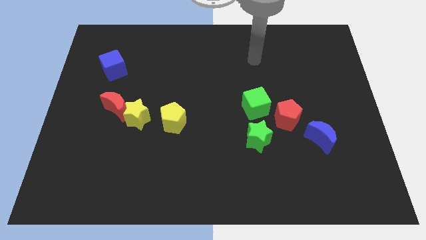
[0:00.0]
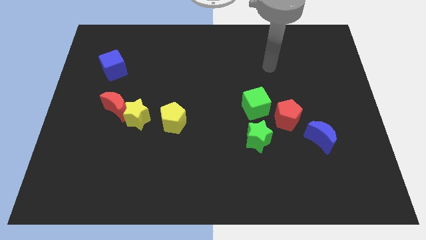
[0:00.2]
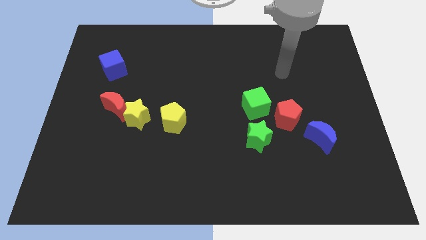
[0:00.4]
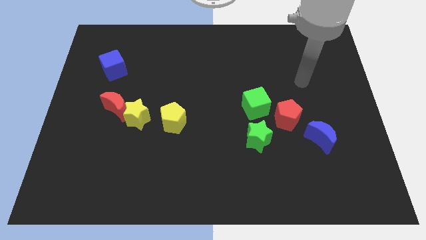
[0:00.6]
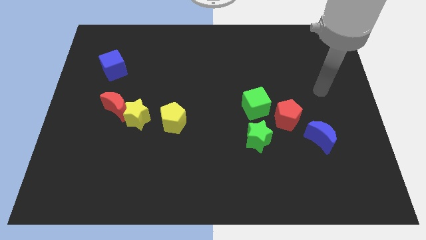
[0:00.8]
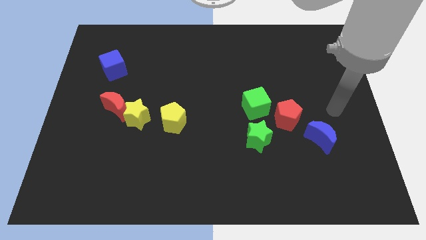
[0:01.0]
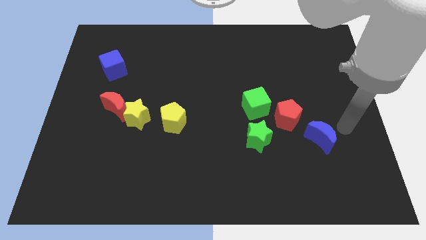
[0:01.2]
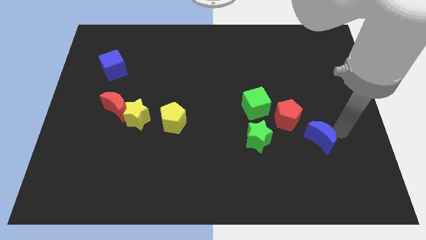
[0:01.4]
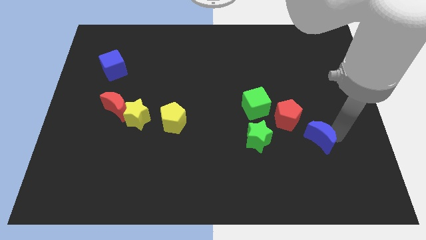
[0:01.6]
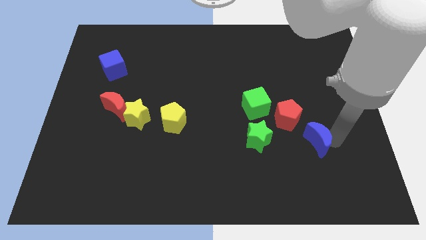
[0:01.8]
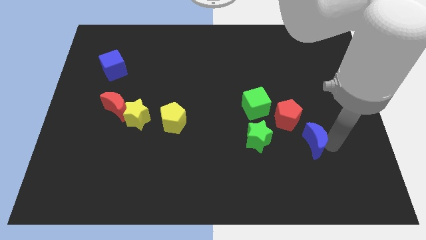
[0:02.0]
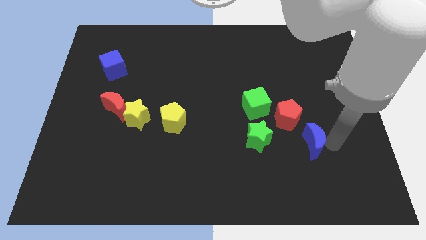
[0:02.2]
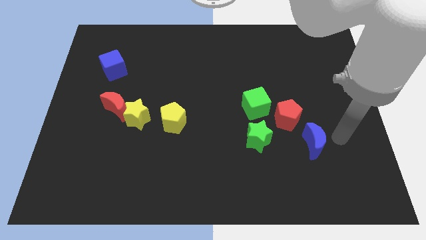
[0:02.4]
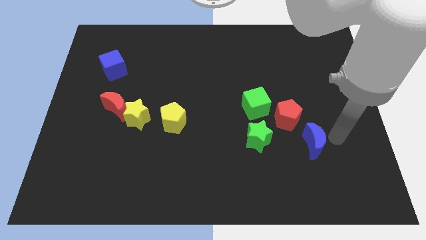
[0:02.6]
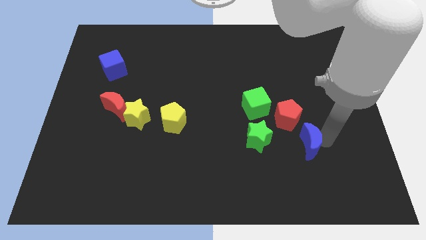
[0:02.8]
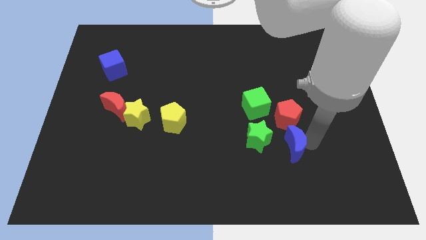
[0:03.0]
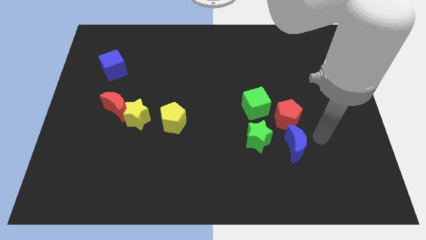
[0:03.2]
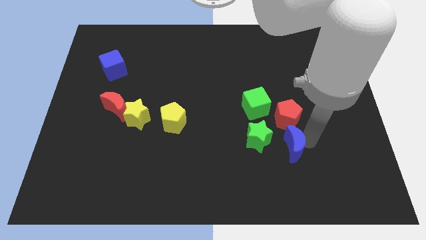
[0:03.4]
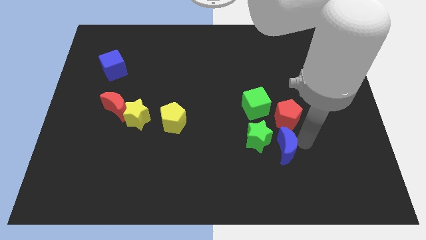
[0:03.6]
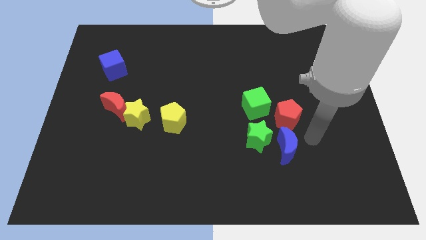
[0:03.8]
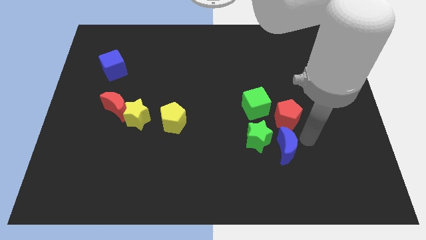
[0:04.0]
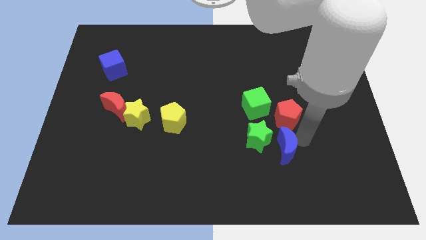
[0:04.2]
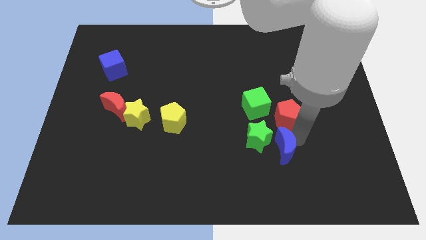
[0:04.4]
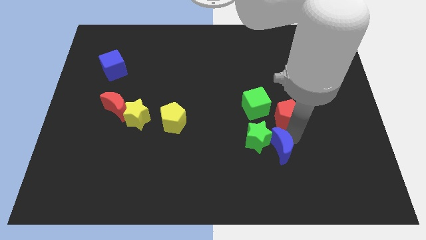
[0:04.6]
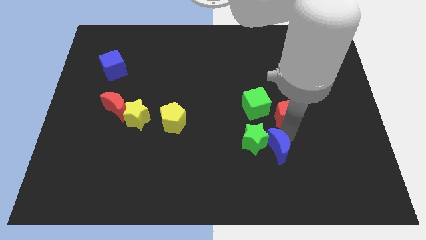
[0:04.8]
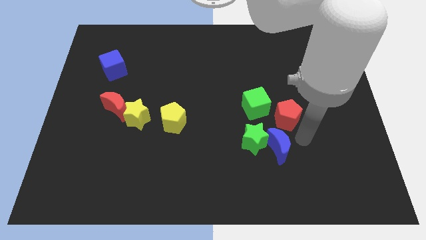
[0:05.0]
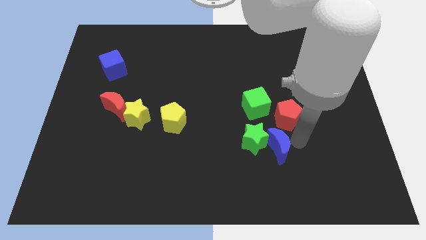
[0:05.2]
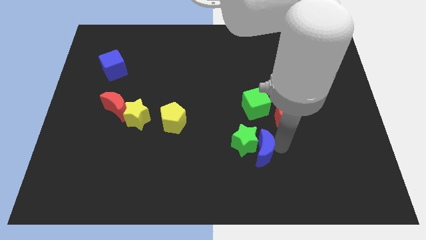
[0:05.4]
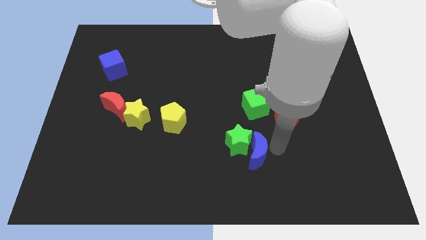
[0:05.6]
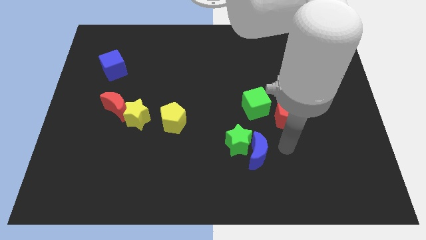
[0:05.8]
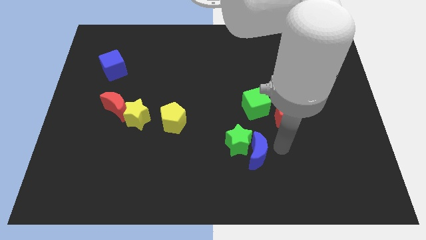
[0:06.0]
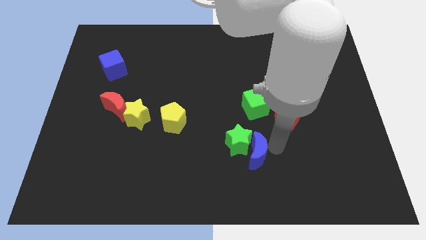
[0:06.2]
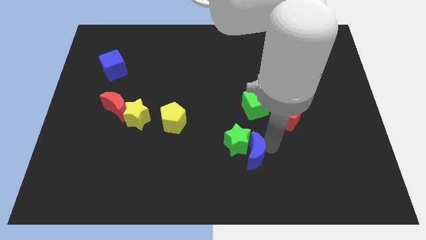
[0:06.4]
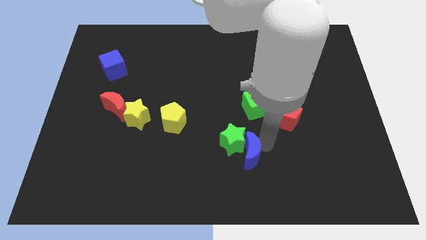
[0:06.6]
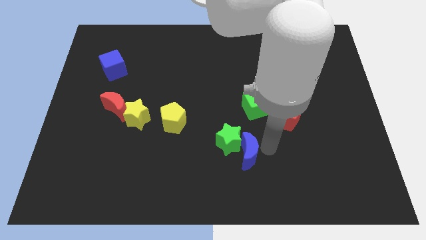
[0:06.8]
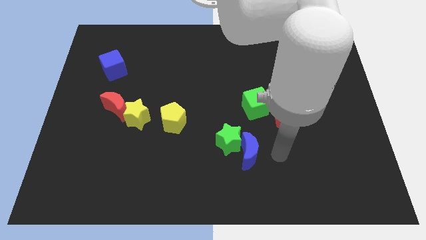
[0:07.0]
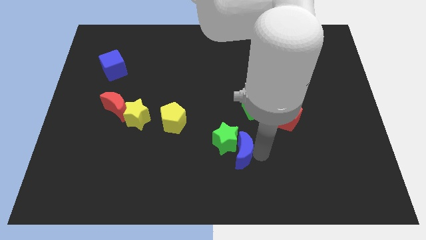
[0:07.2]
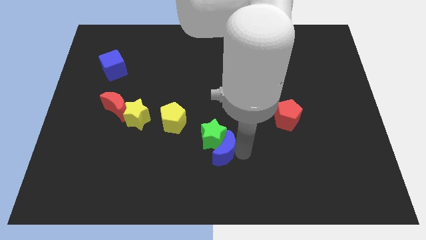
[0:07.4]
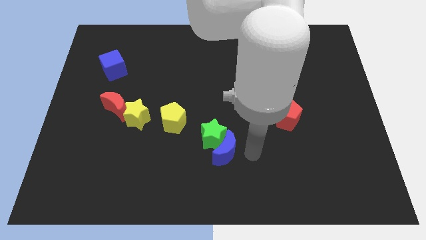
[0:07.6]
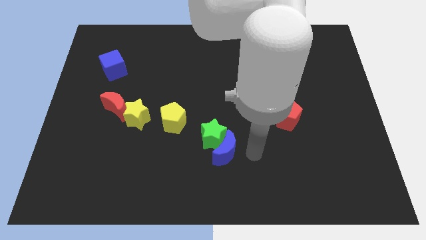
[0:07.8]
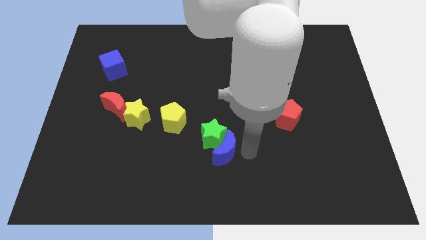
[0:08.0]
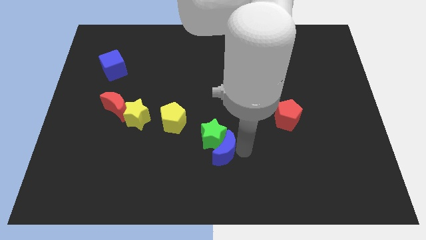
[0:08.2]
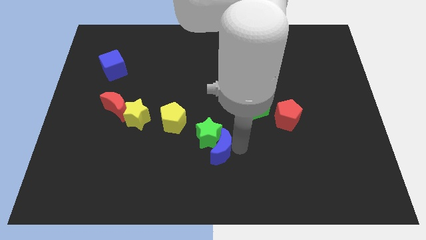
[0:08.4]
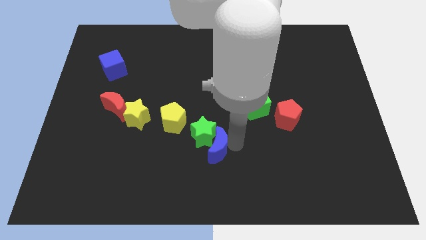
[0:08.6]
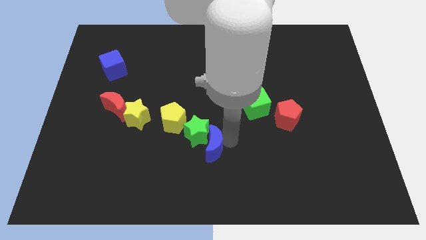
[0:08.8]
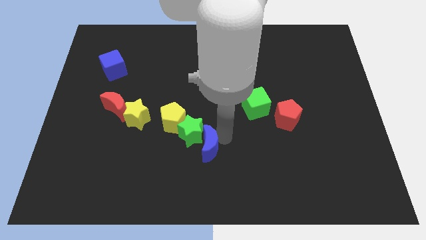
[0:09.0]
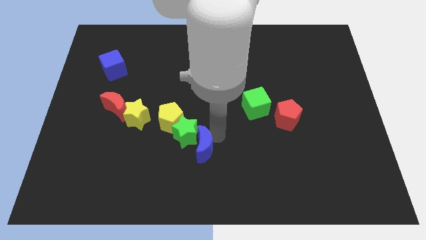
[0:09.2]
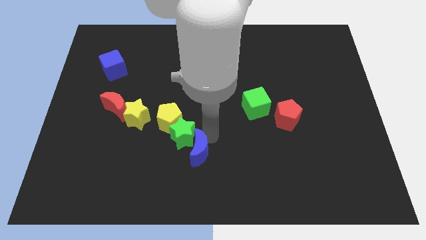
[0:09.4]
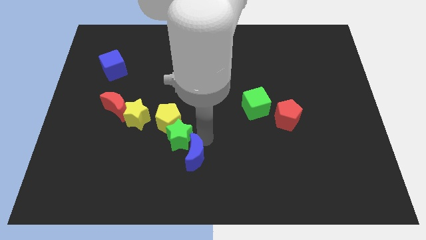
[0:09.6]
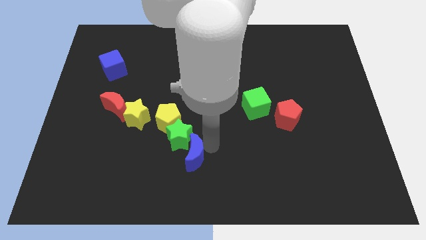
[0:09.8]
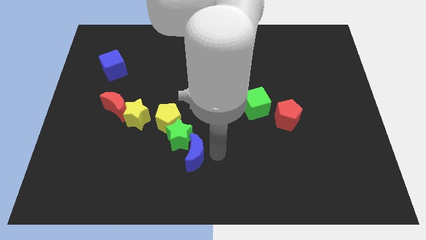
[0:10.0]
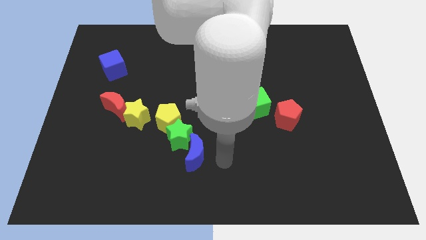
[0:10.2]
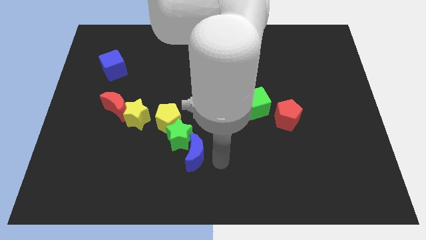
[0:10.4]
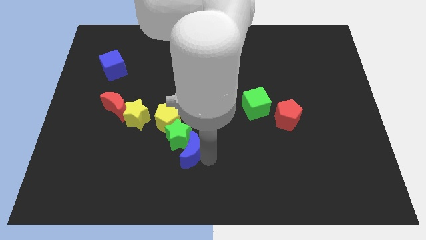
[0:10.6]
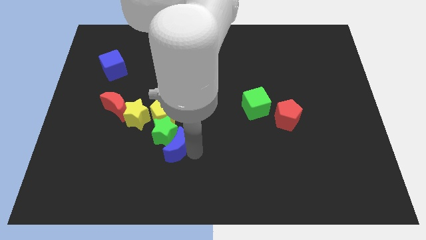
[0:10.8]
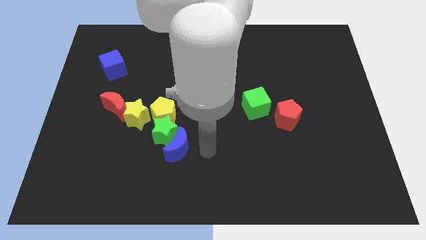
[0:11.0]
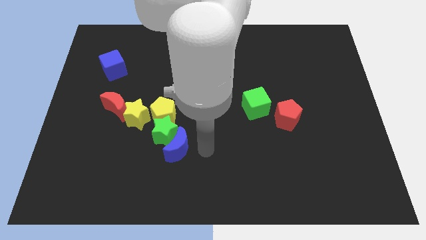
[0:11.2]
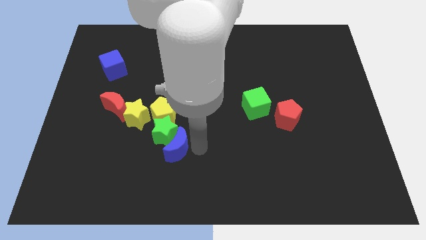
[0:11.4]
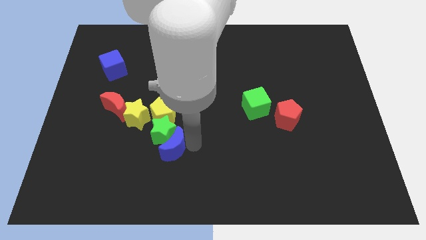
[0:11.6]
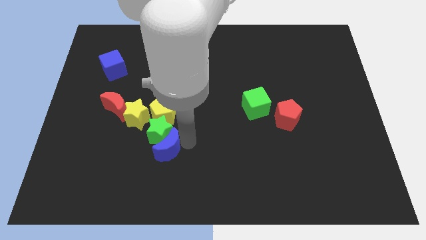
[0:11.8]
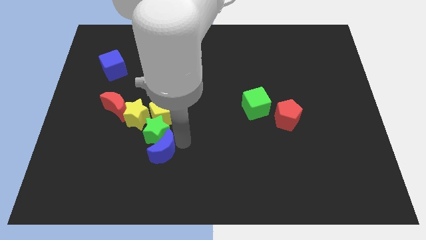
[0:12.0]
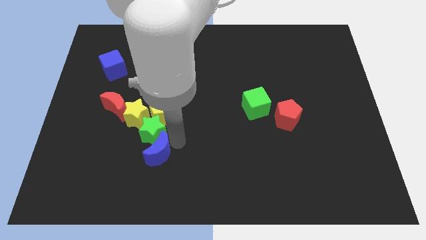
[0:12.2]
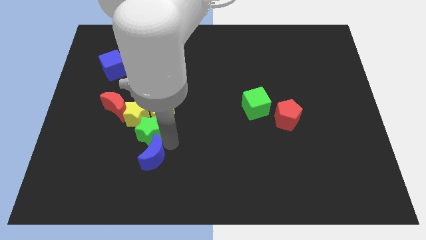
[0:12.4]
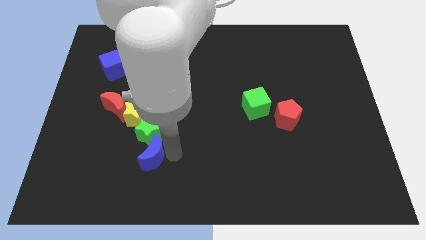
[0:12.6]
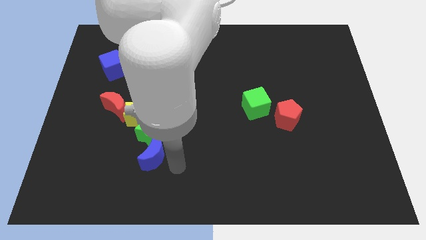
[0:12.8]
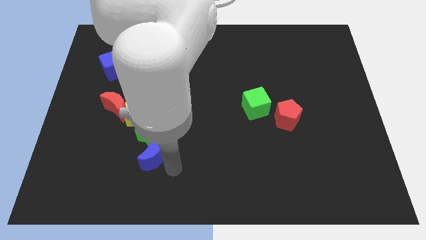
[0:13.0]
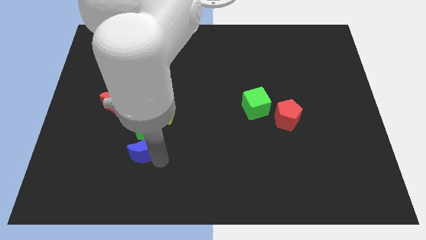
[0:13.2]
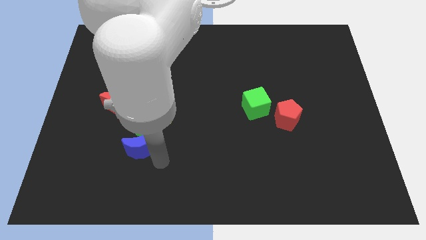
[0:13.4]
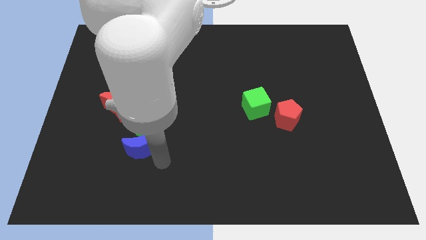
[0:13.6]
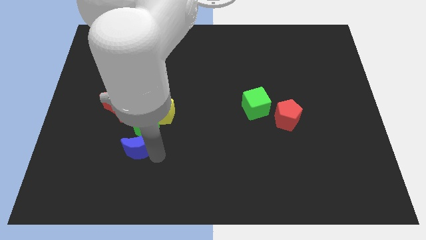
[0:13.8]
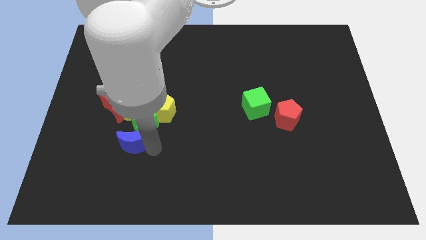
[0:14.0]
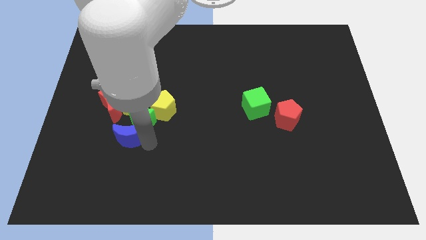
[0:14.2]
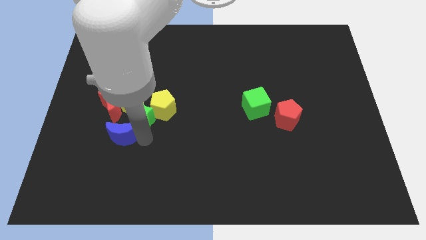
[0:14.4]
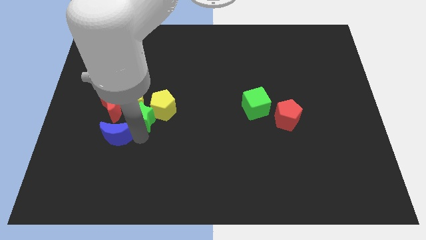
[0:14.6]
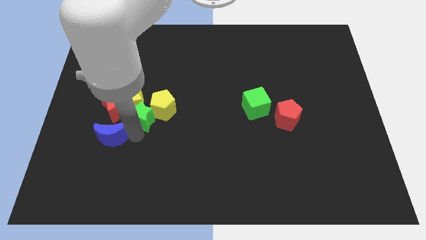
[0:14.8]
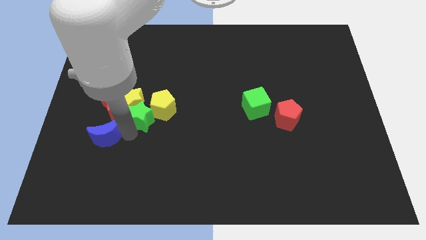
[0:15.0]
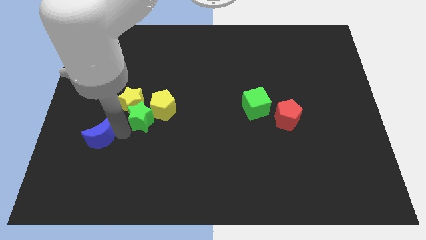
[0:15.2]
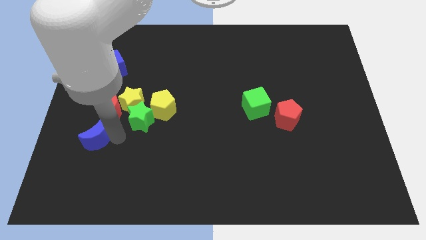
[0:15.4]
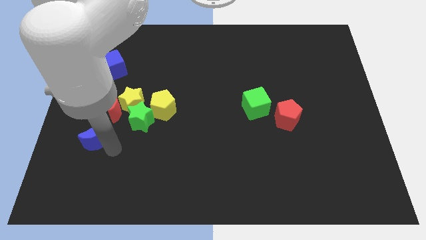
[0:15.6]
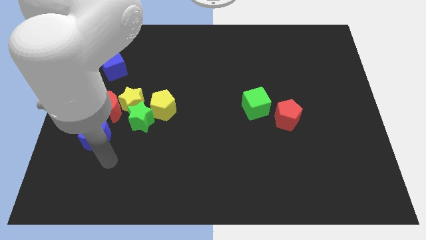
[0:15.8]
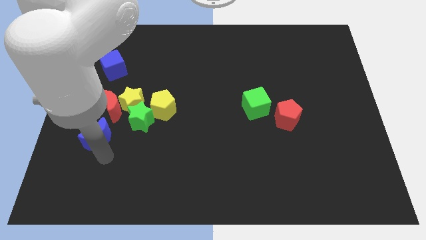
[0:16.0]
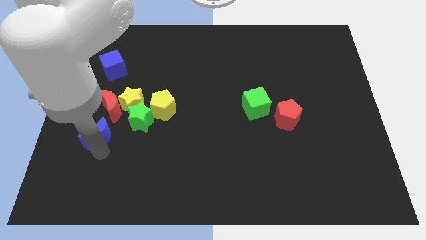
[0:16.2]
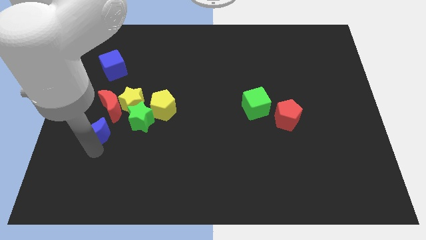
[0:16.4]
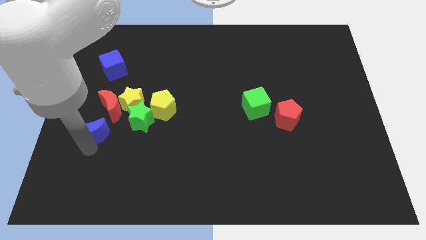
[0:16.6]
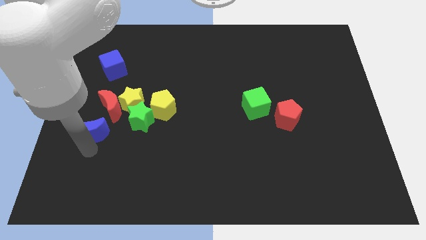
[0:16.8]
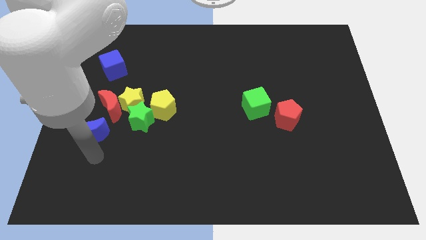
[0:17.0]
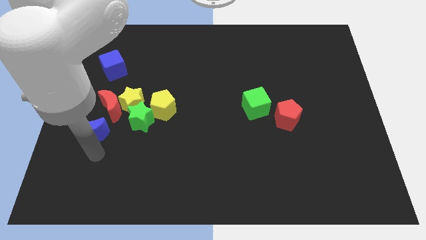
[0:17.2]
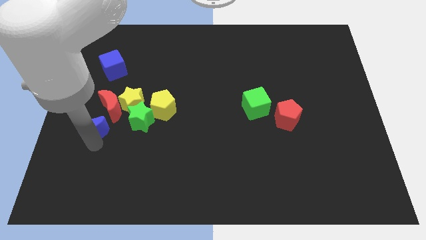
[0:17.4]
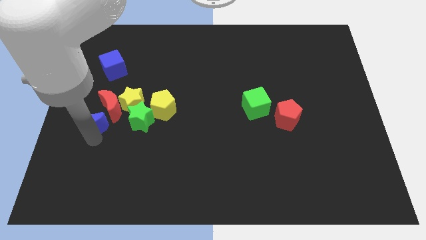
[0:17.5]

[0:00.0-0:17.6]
move the blue moon to the center left
